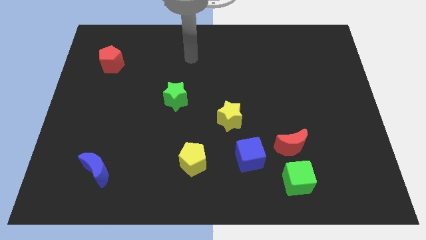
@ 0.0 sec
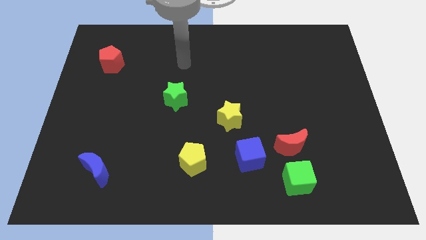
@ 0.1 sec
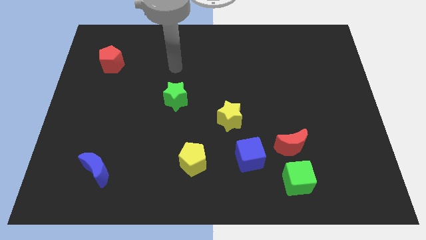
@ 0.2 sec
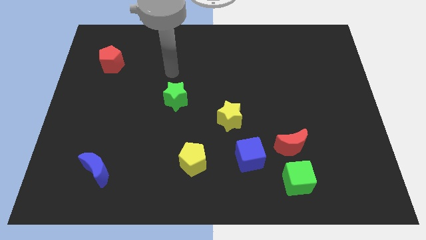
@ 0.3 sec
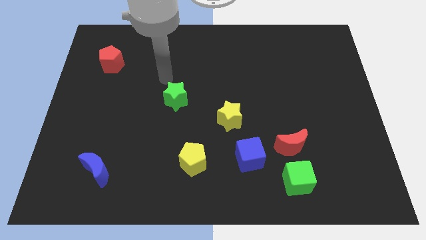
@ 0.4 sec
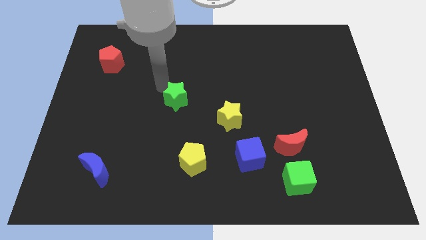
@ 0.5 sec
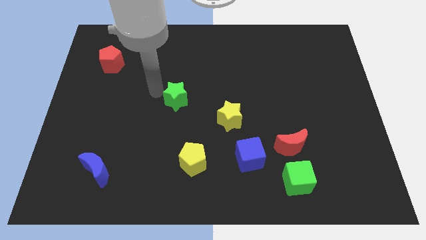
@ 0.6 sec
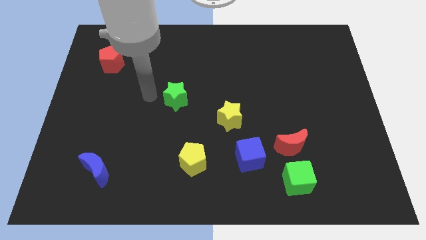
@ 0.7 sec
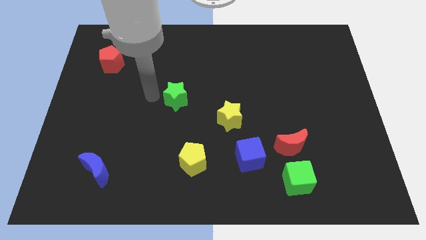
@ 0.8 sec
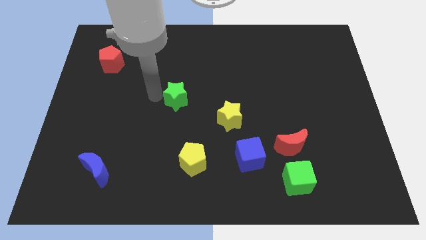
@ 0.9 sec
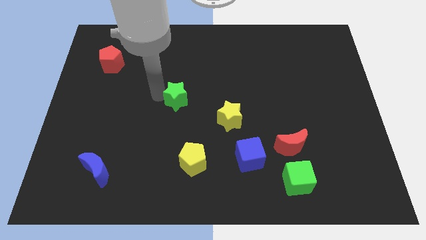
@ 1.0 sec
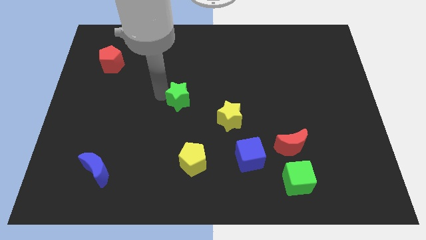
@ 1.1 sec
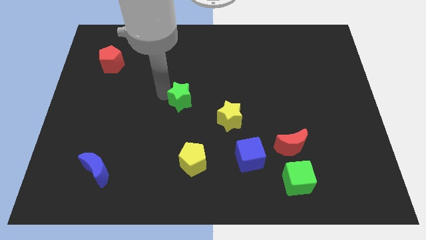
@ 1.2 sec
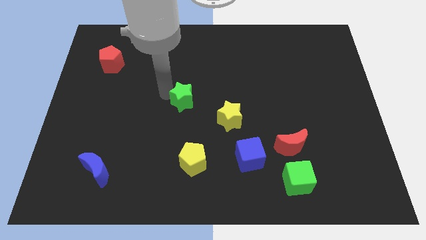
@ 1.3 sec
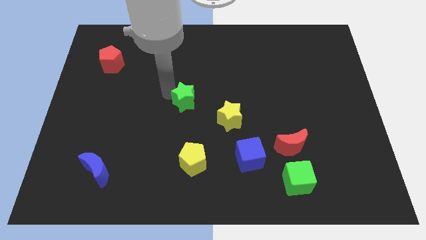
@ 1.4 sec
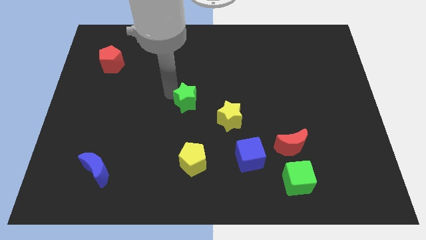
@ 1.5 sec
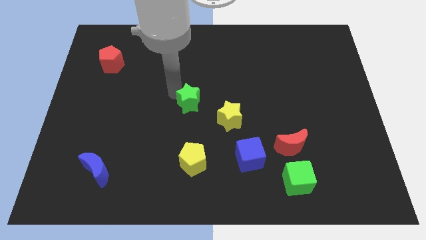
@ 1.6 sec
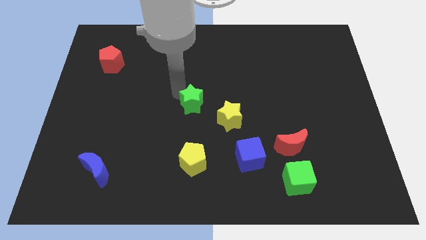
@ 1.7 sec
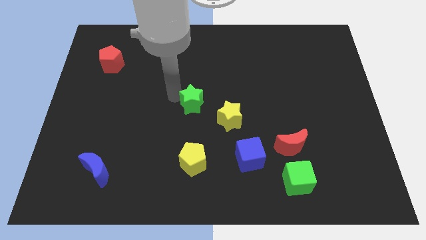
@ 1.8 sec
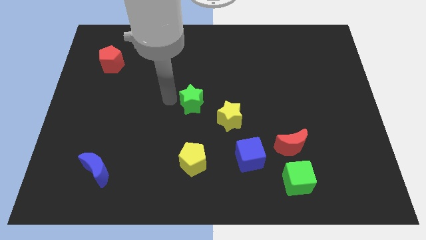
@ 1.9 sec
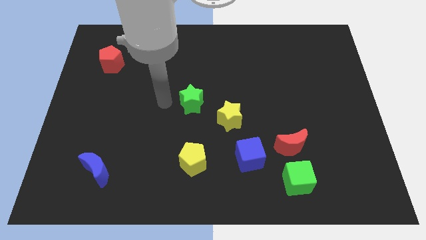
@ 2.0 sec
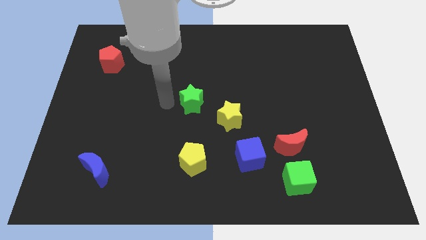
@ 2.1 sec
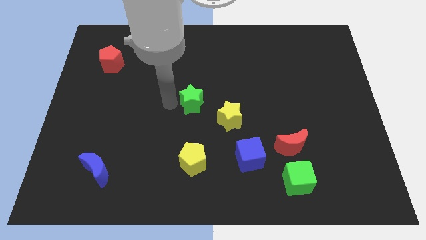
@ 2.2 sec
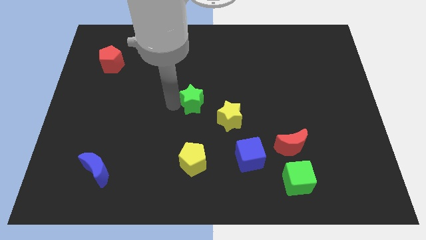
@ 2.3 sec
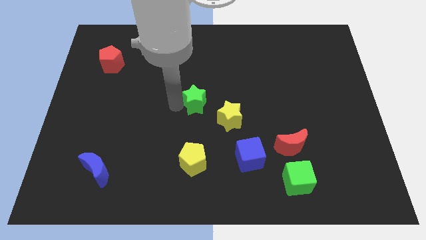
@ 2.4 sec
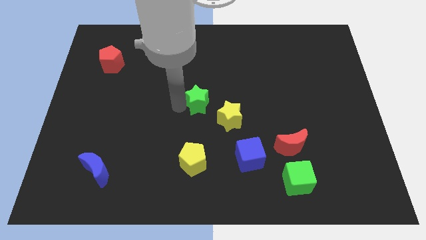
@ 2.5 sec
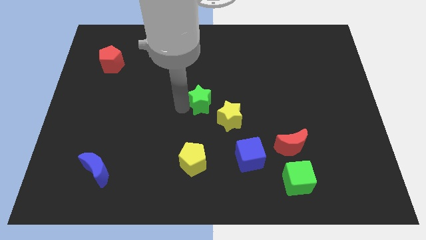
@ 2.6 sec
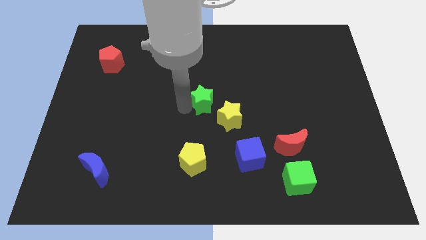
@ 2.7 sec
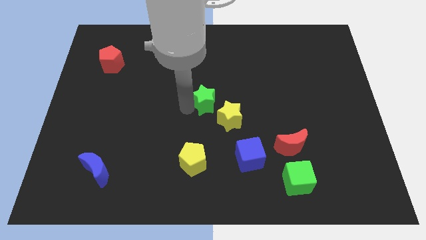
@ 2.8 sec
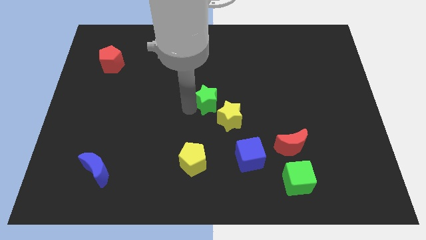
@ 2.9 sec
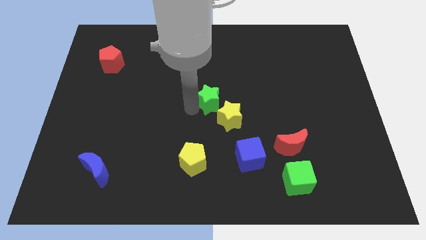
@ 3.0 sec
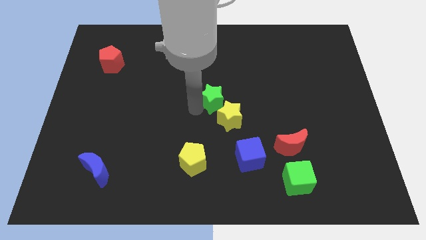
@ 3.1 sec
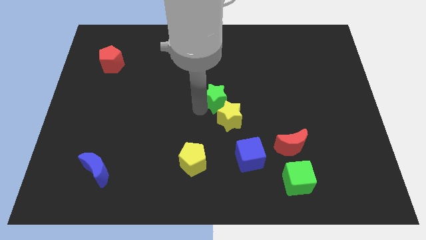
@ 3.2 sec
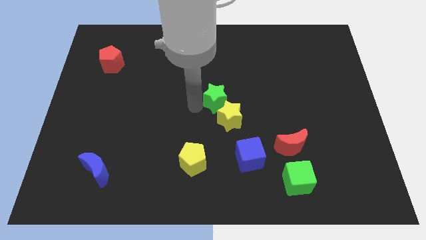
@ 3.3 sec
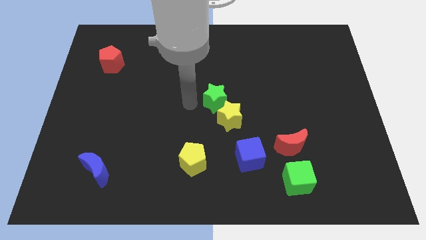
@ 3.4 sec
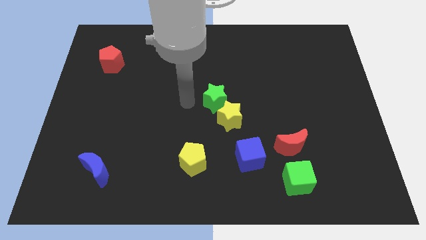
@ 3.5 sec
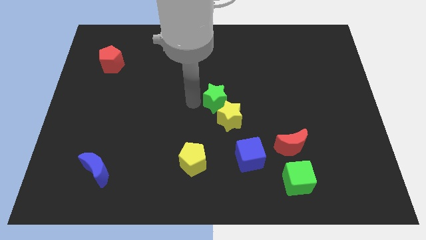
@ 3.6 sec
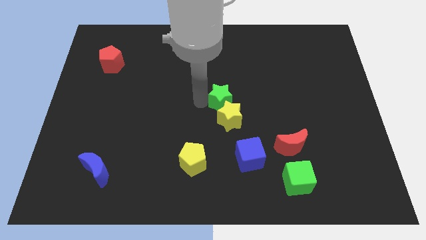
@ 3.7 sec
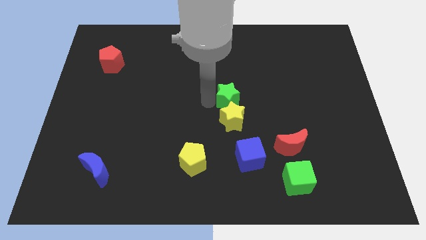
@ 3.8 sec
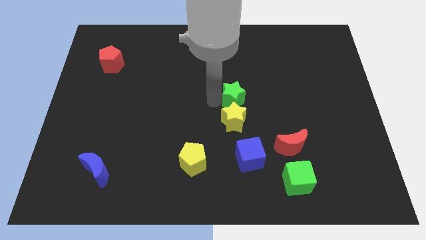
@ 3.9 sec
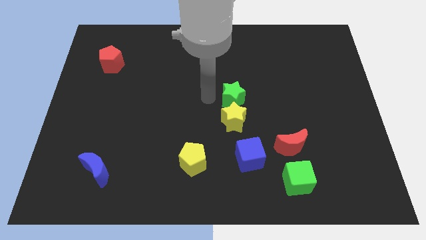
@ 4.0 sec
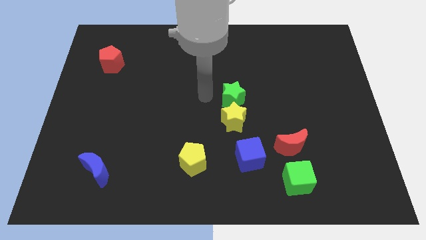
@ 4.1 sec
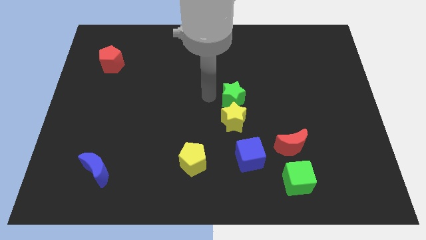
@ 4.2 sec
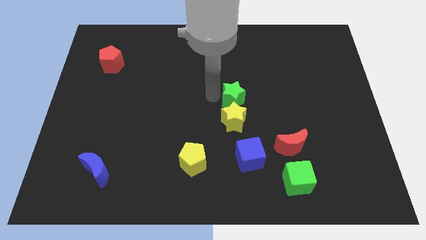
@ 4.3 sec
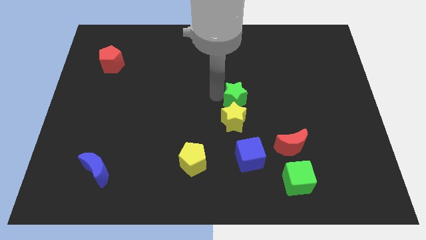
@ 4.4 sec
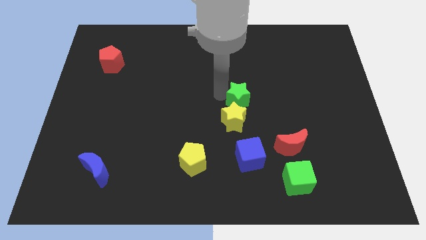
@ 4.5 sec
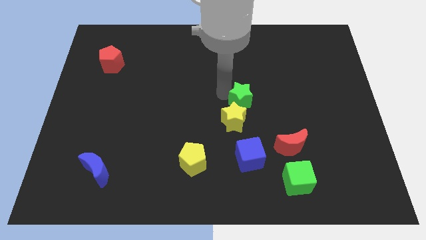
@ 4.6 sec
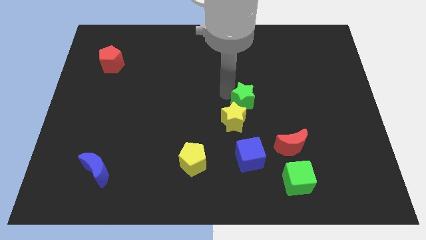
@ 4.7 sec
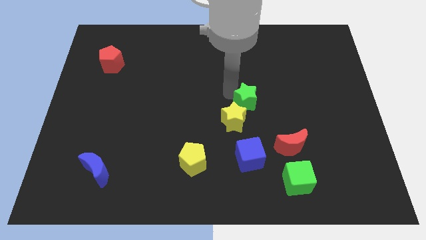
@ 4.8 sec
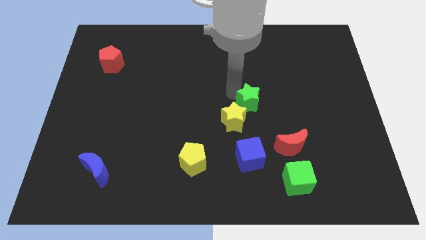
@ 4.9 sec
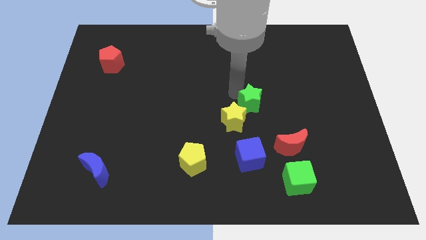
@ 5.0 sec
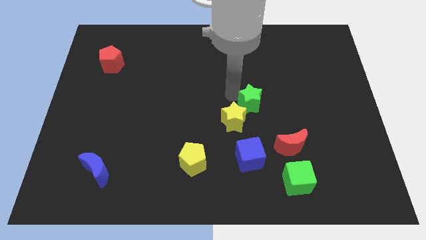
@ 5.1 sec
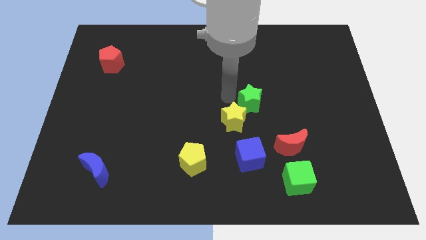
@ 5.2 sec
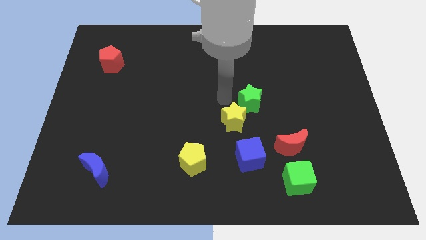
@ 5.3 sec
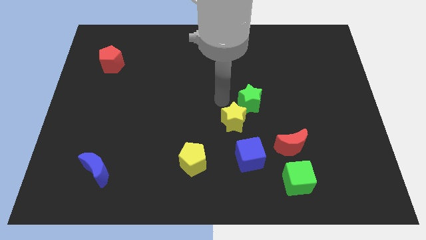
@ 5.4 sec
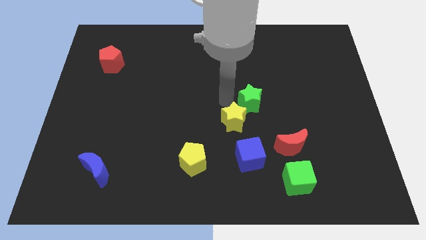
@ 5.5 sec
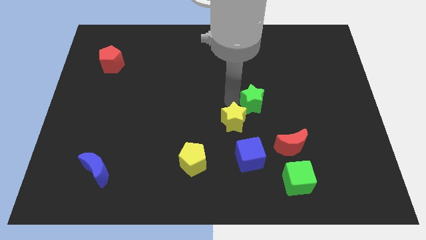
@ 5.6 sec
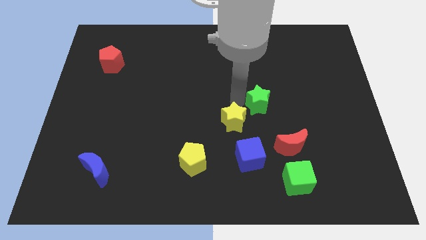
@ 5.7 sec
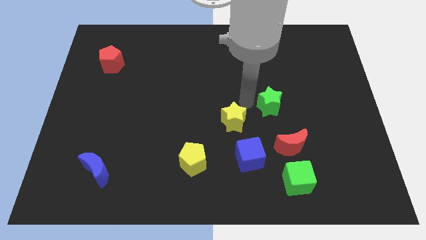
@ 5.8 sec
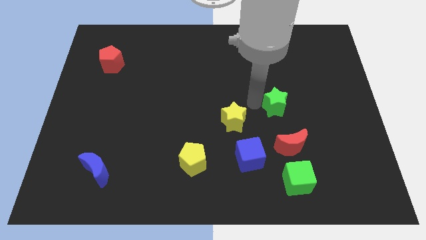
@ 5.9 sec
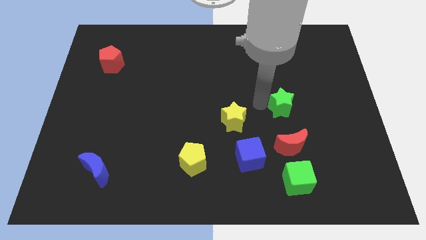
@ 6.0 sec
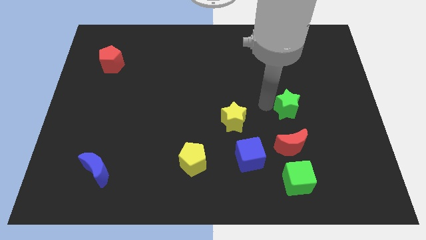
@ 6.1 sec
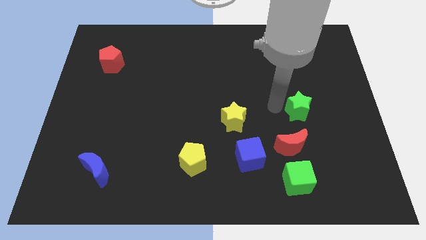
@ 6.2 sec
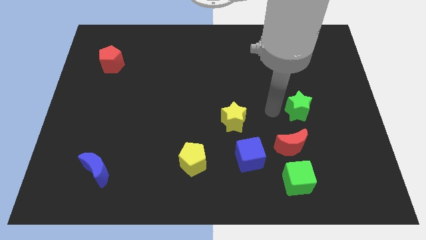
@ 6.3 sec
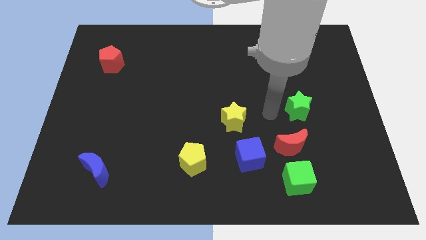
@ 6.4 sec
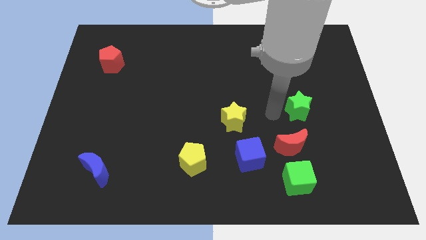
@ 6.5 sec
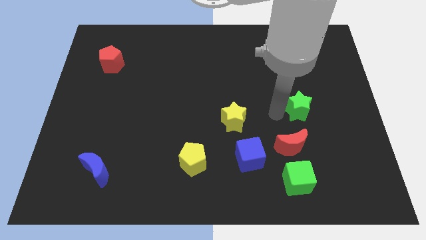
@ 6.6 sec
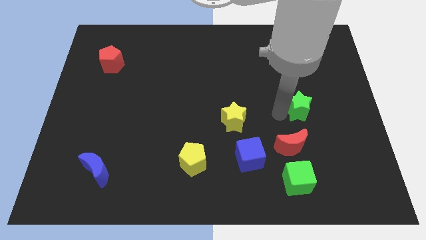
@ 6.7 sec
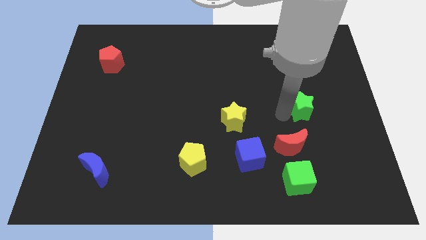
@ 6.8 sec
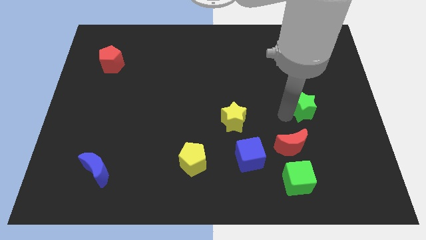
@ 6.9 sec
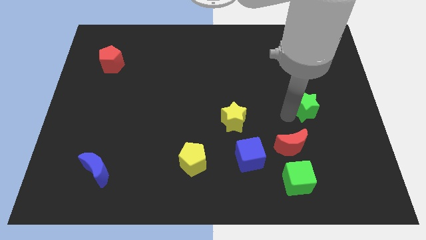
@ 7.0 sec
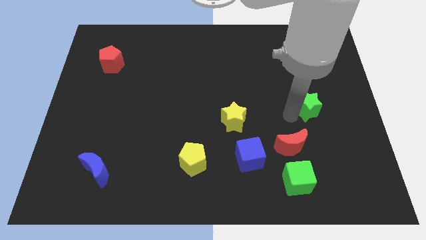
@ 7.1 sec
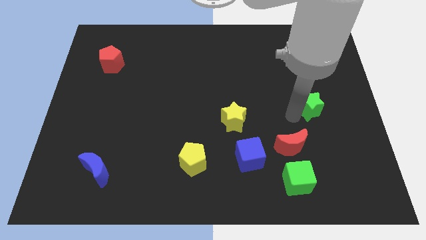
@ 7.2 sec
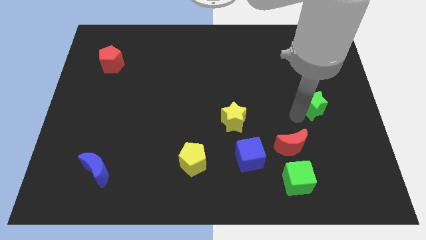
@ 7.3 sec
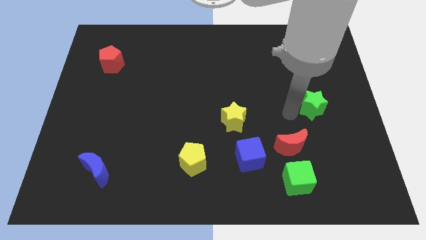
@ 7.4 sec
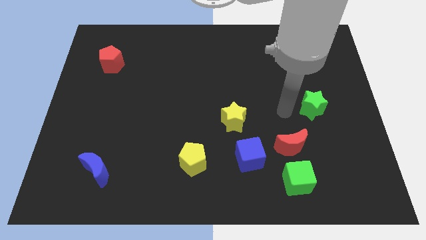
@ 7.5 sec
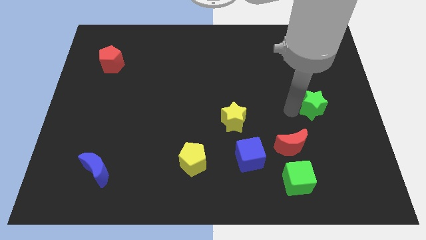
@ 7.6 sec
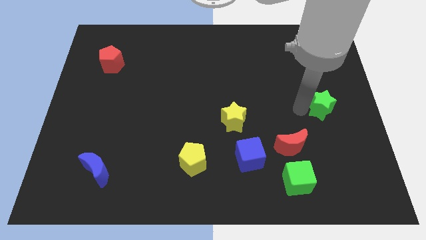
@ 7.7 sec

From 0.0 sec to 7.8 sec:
push the green star to the center right
